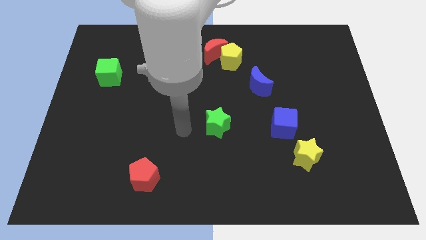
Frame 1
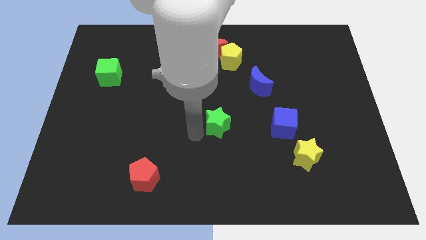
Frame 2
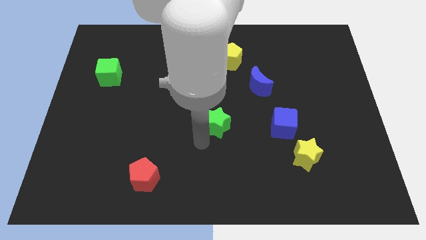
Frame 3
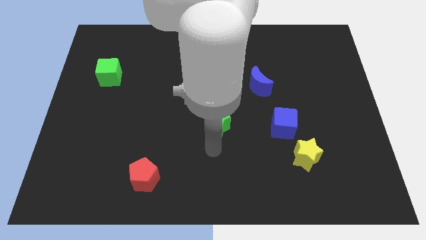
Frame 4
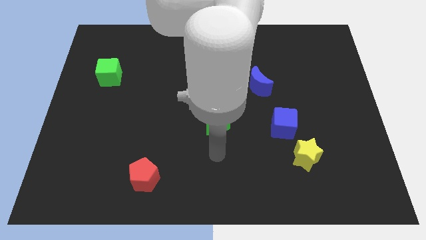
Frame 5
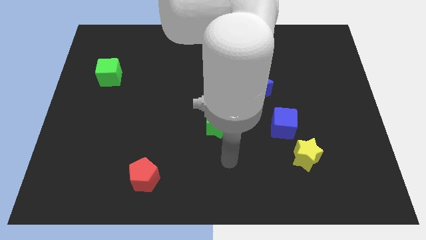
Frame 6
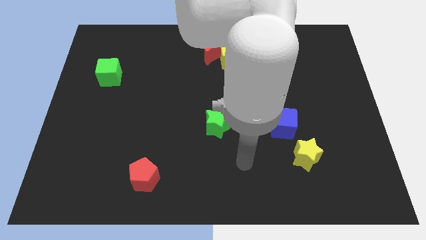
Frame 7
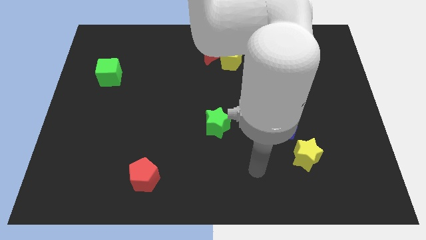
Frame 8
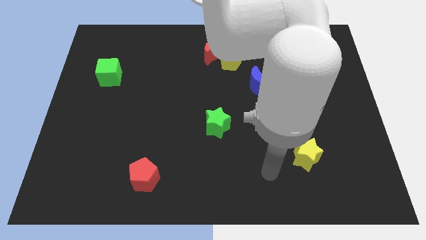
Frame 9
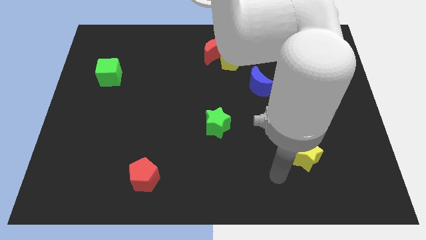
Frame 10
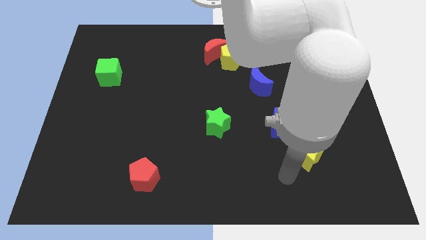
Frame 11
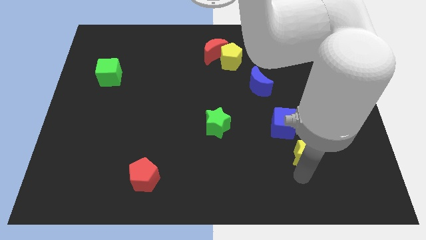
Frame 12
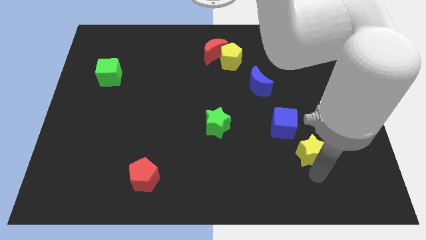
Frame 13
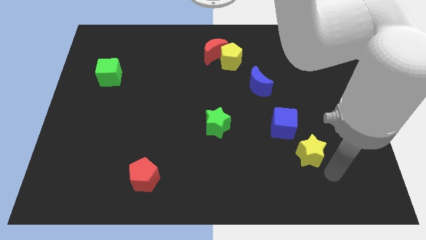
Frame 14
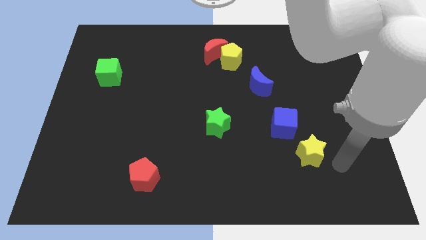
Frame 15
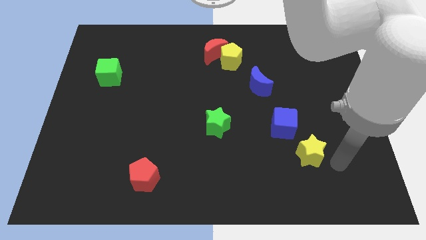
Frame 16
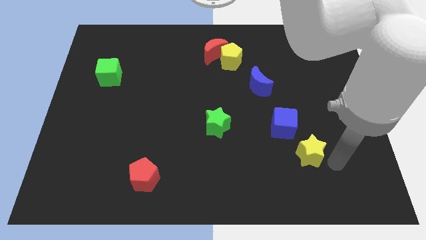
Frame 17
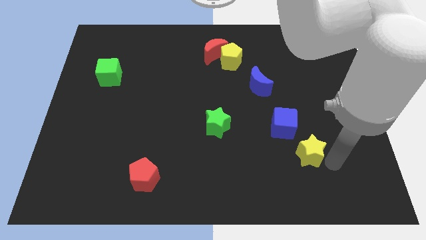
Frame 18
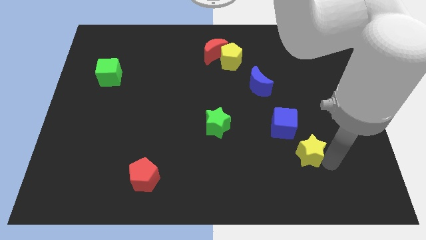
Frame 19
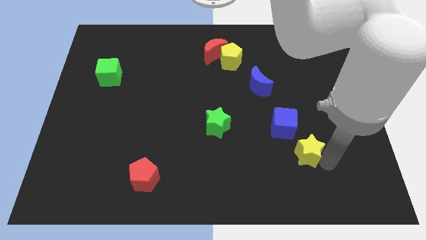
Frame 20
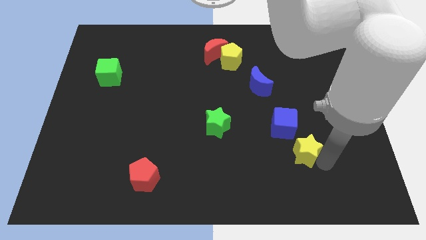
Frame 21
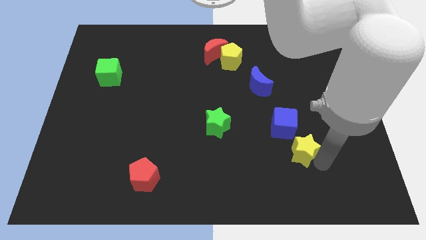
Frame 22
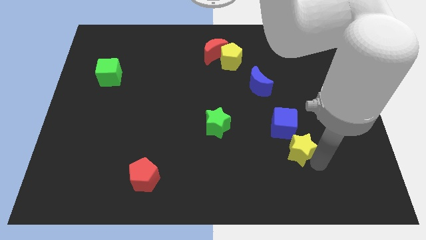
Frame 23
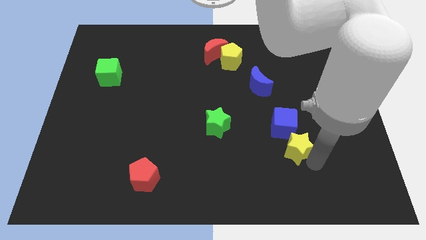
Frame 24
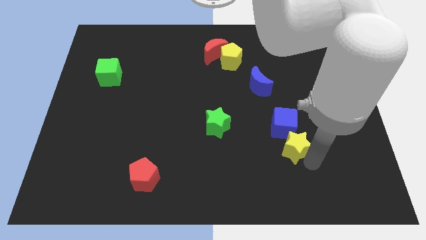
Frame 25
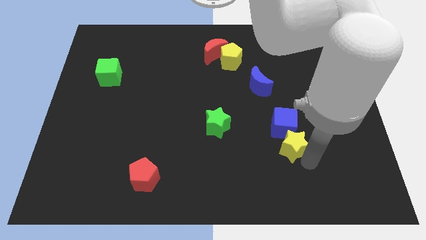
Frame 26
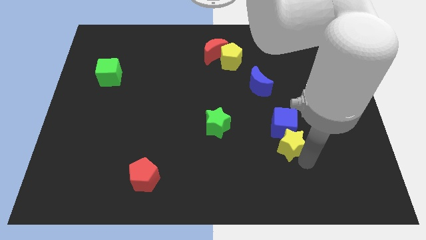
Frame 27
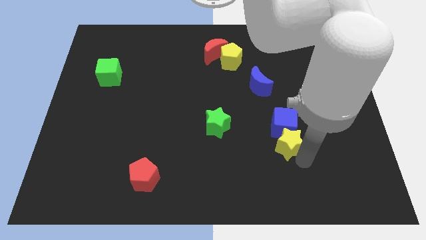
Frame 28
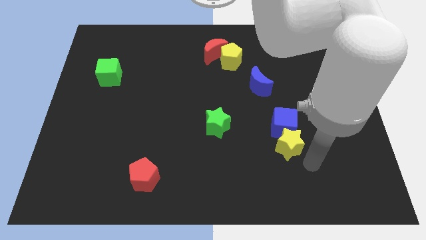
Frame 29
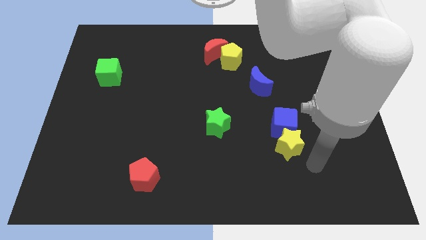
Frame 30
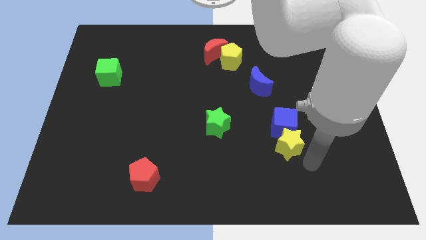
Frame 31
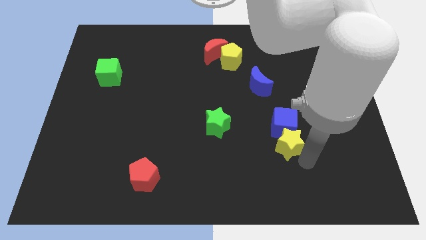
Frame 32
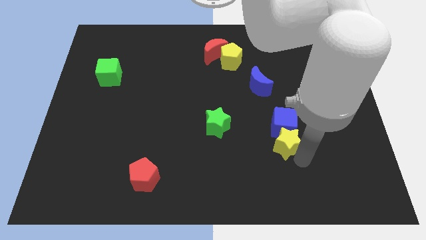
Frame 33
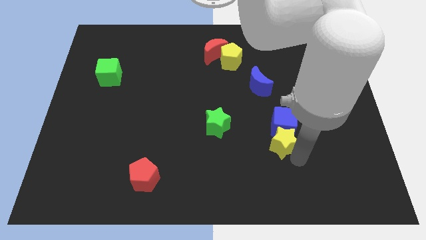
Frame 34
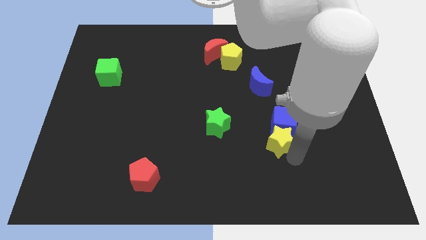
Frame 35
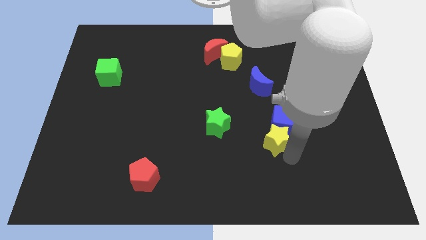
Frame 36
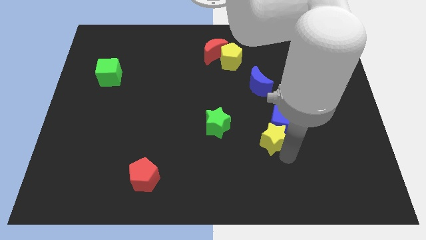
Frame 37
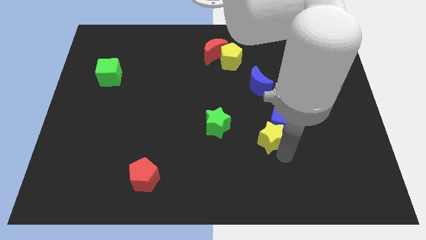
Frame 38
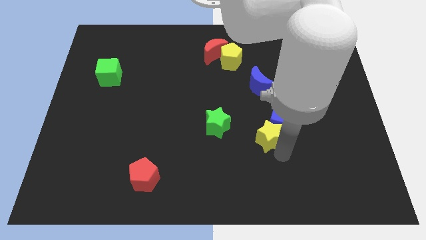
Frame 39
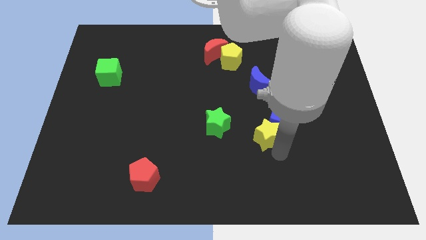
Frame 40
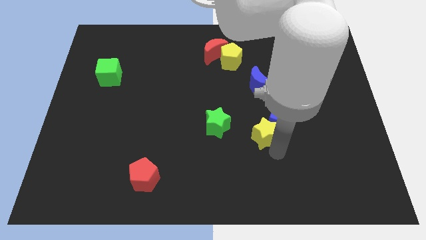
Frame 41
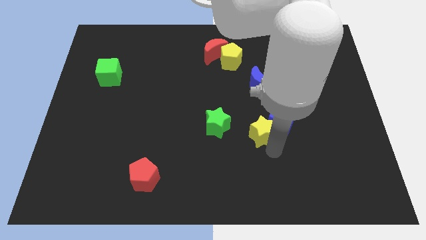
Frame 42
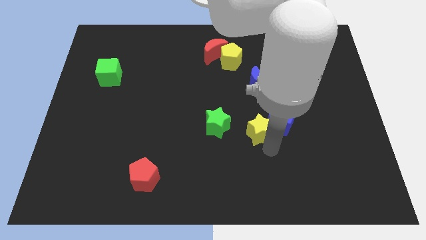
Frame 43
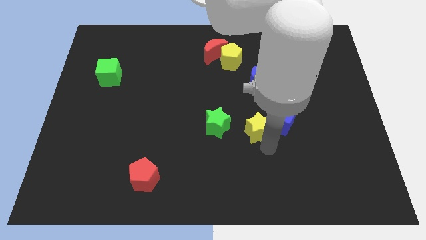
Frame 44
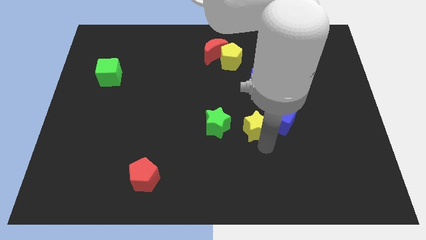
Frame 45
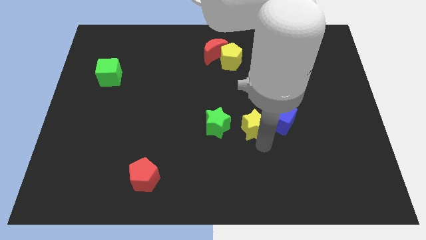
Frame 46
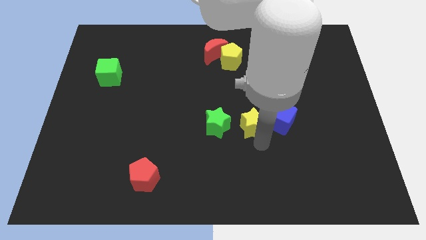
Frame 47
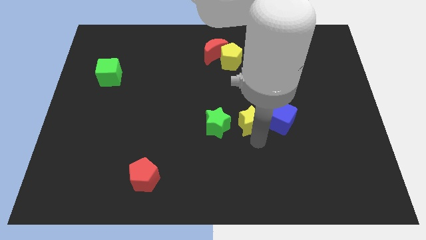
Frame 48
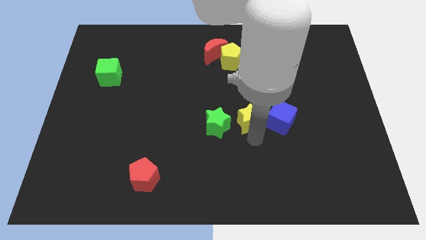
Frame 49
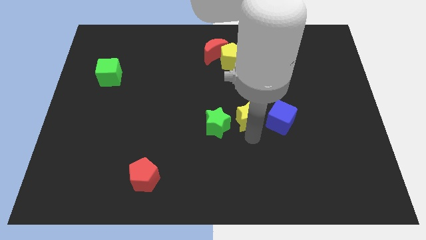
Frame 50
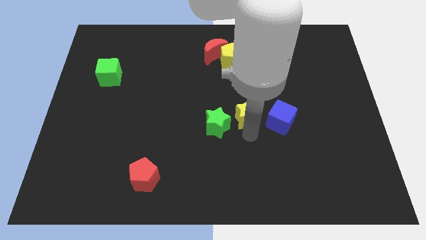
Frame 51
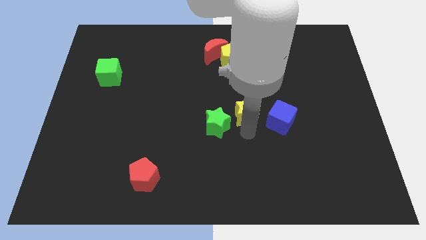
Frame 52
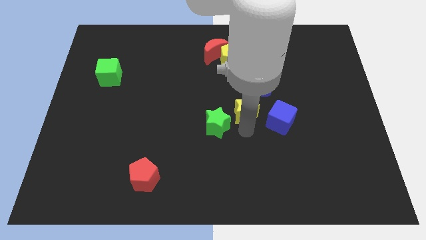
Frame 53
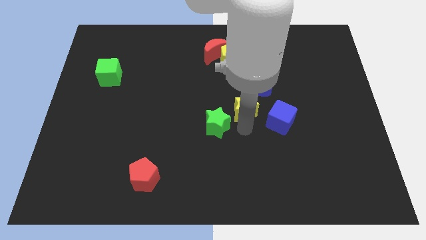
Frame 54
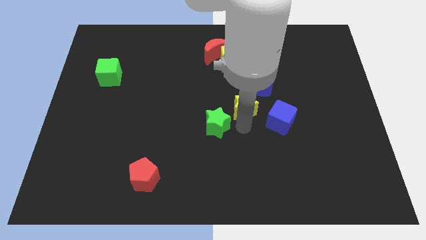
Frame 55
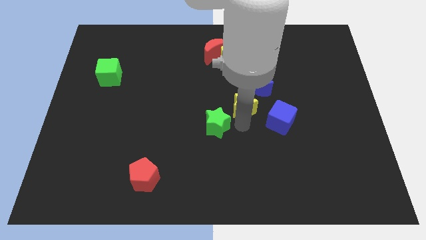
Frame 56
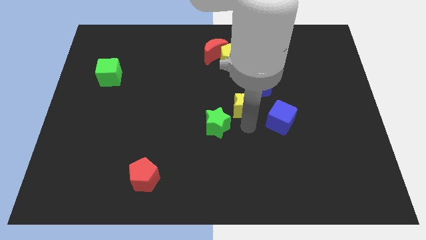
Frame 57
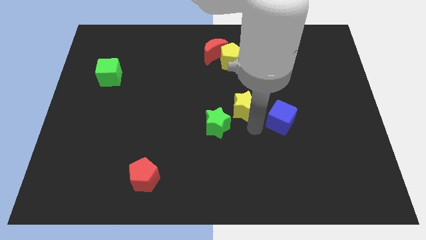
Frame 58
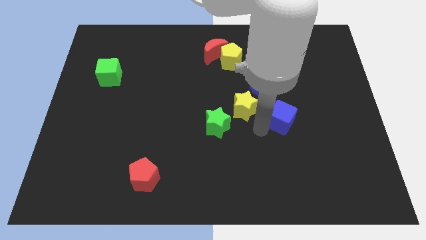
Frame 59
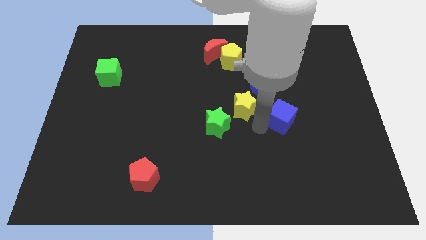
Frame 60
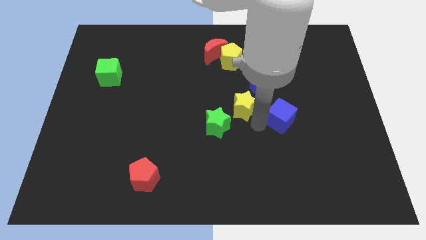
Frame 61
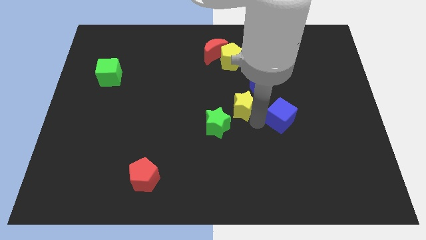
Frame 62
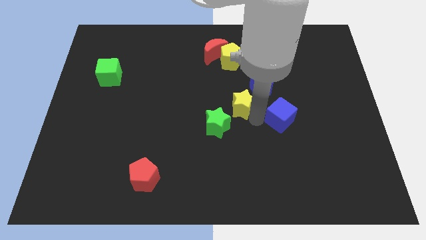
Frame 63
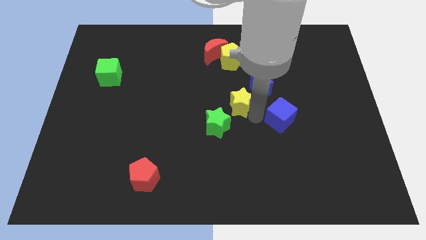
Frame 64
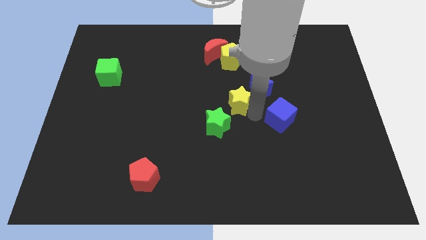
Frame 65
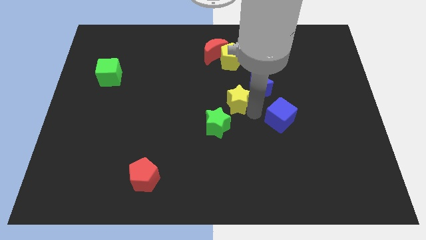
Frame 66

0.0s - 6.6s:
slide the yellow star diagonally up and left

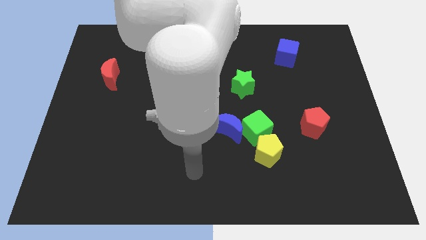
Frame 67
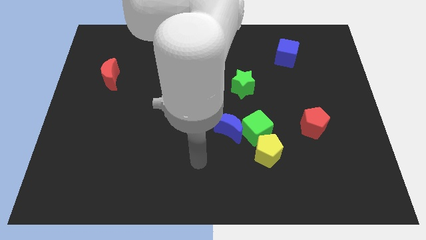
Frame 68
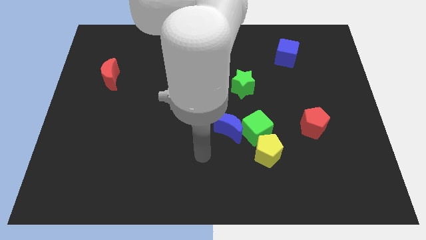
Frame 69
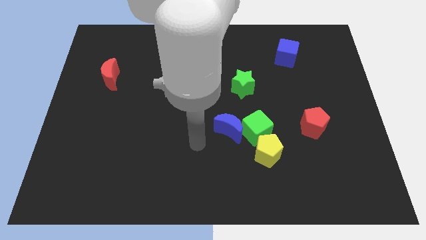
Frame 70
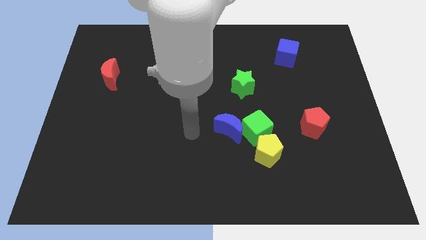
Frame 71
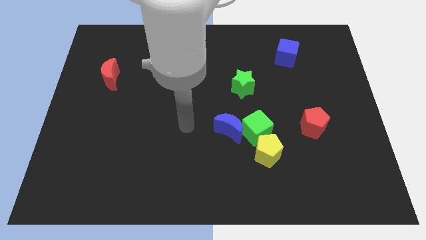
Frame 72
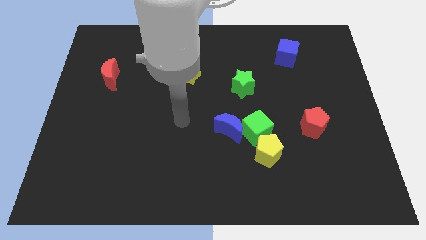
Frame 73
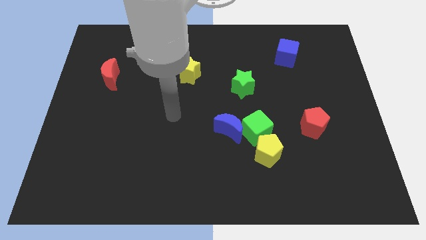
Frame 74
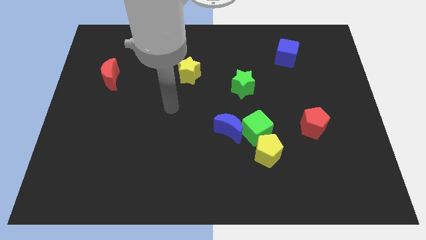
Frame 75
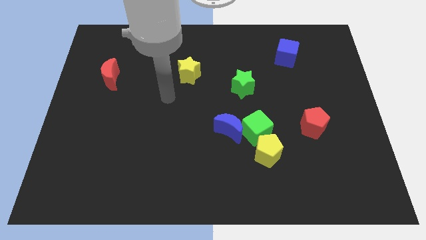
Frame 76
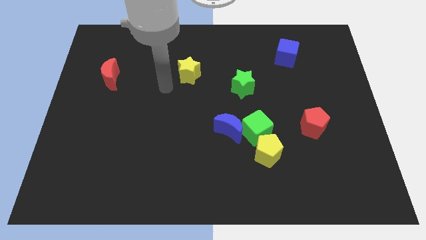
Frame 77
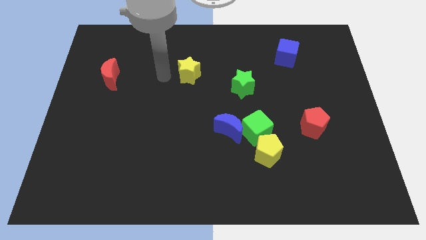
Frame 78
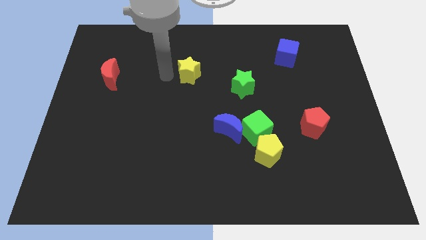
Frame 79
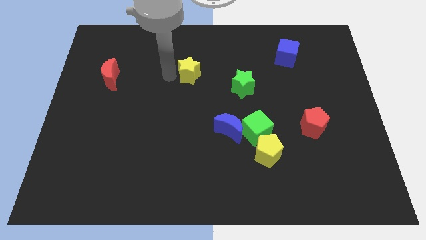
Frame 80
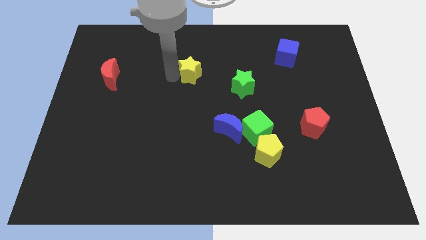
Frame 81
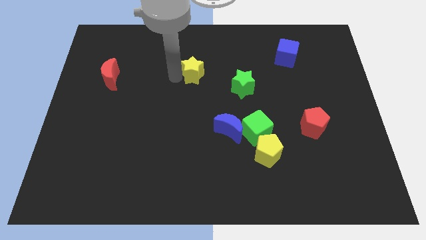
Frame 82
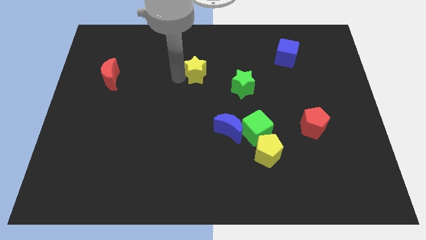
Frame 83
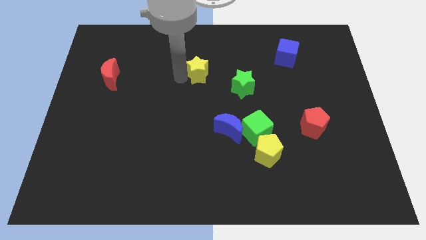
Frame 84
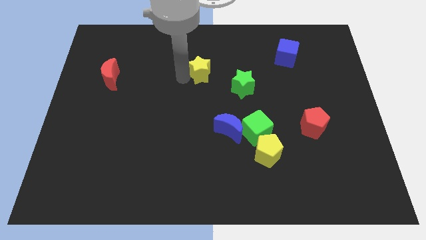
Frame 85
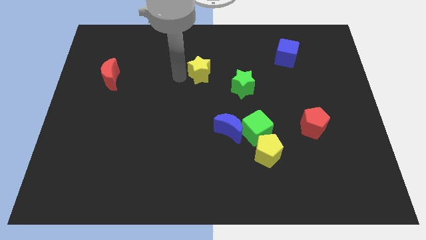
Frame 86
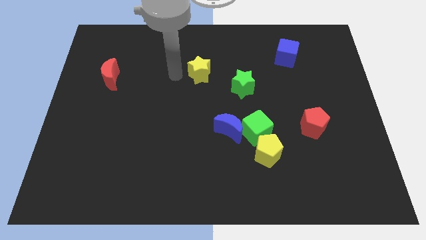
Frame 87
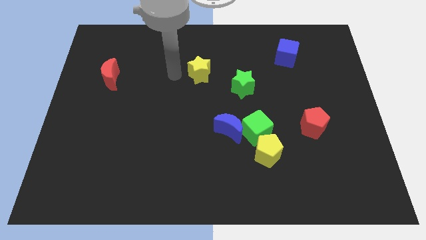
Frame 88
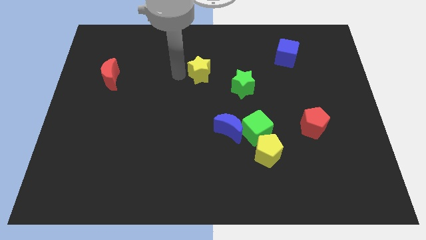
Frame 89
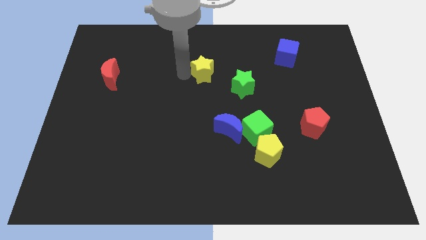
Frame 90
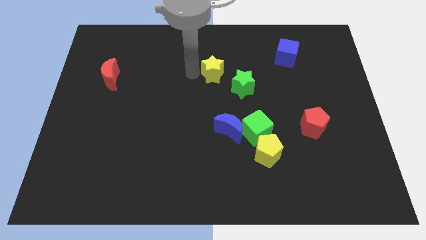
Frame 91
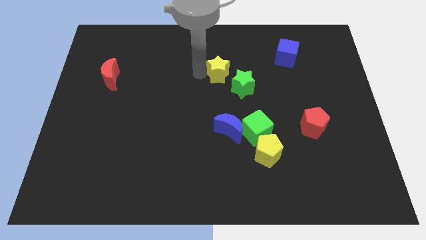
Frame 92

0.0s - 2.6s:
move the yellow star somewhat right
